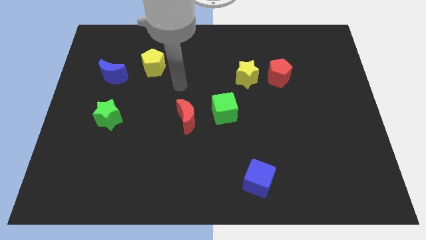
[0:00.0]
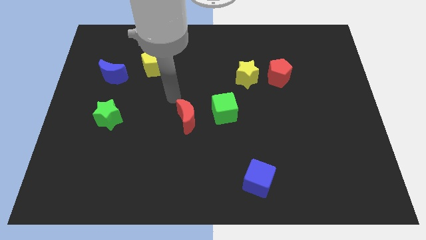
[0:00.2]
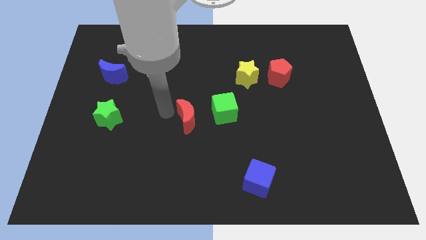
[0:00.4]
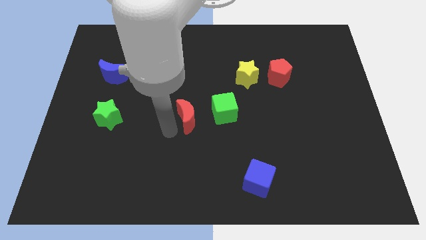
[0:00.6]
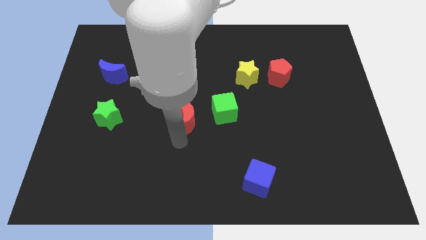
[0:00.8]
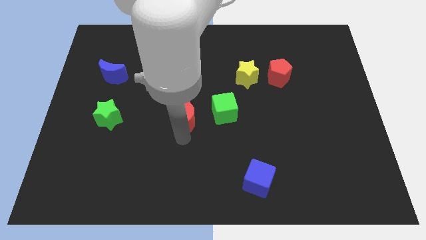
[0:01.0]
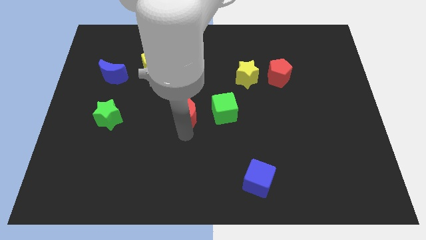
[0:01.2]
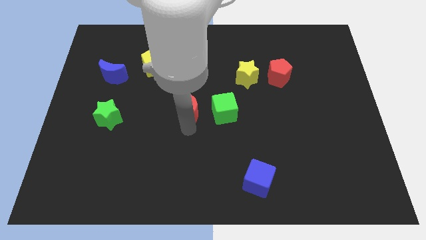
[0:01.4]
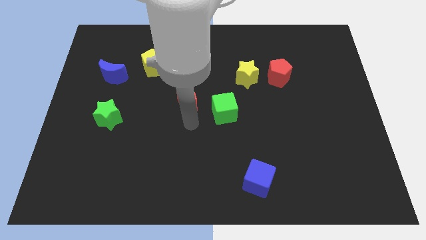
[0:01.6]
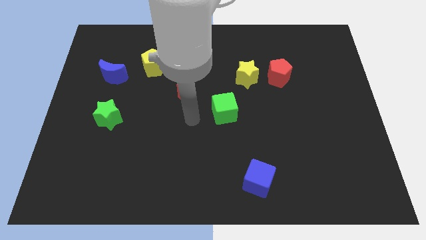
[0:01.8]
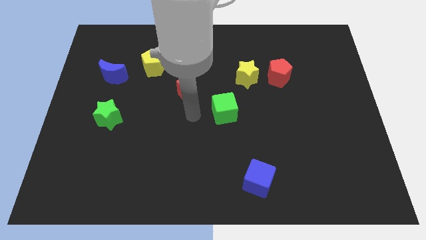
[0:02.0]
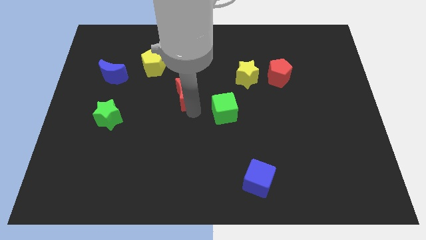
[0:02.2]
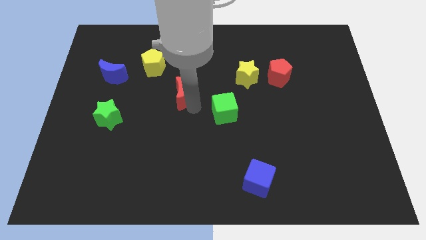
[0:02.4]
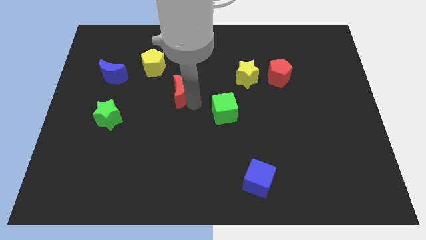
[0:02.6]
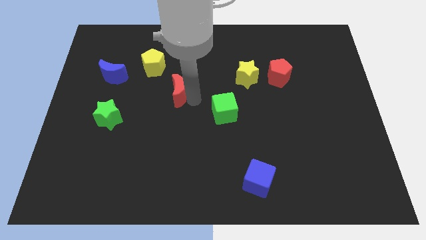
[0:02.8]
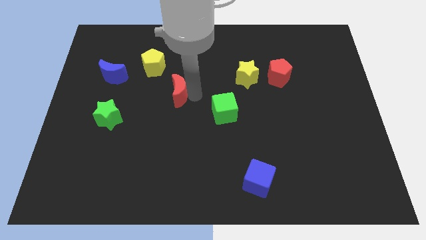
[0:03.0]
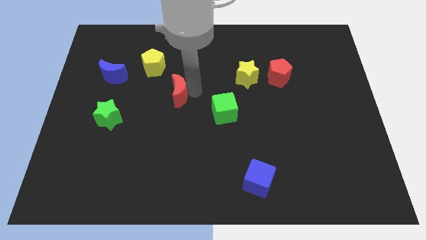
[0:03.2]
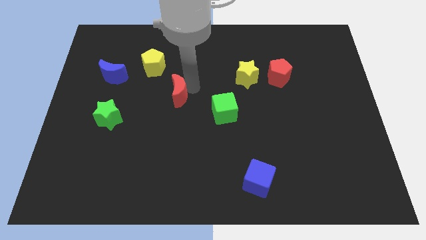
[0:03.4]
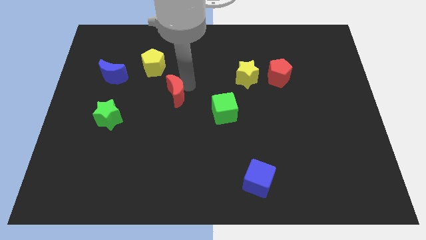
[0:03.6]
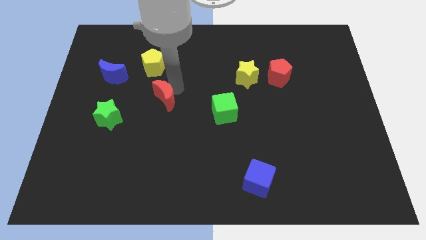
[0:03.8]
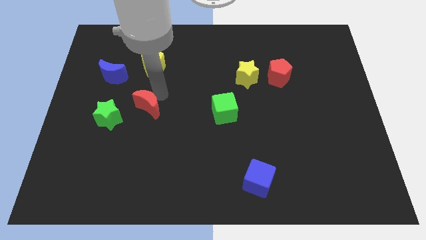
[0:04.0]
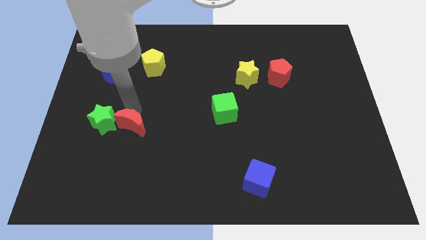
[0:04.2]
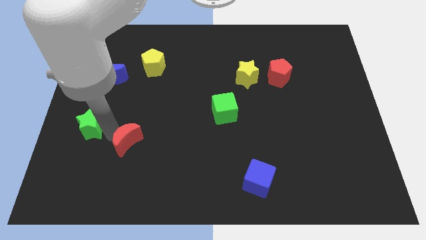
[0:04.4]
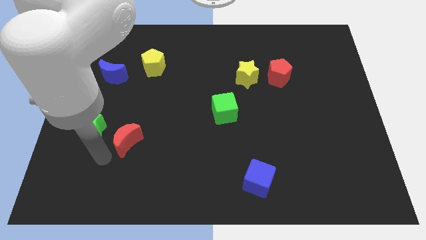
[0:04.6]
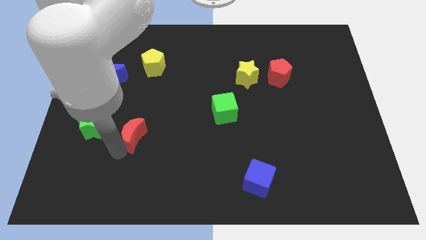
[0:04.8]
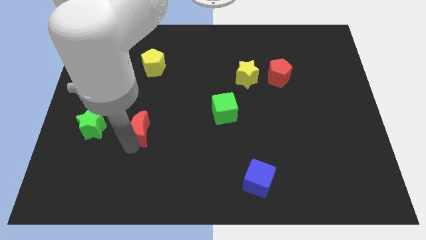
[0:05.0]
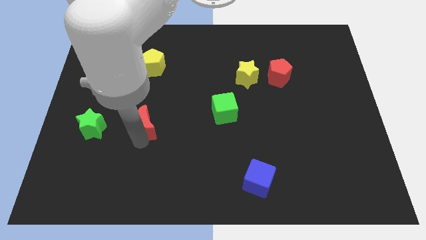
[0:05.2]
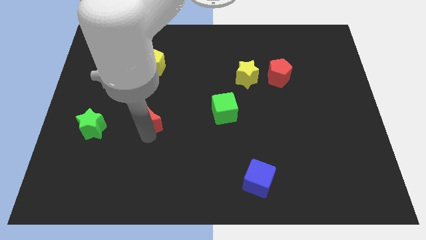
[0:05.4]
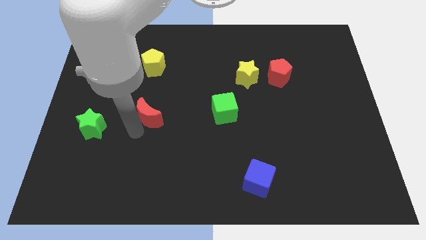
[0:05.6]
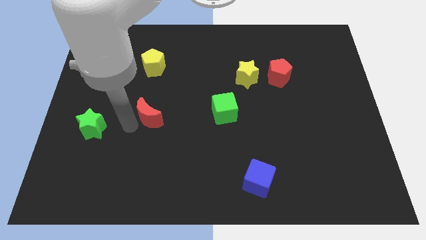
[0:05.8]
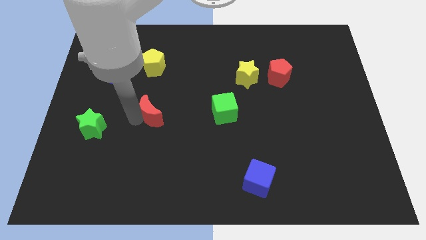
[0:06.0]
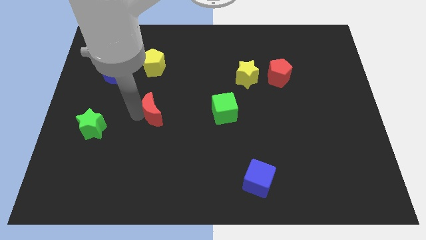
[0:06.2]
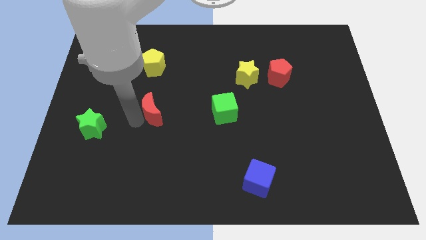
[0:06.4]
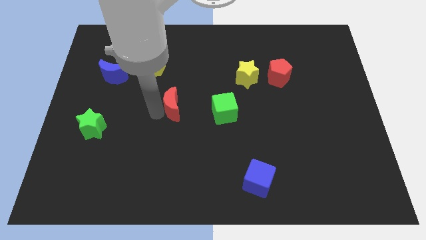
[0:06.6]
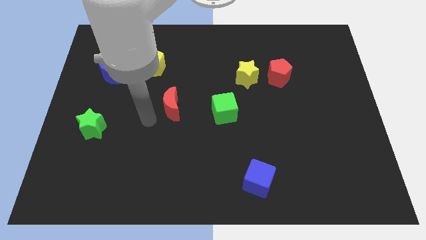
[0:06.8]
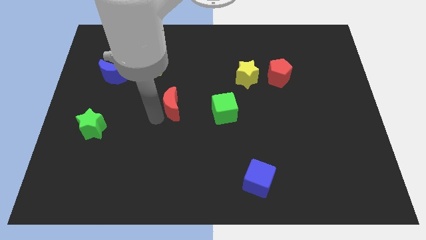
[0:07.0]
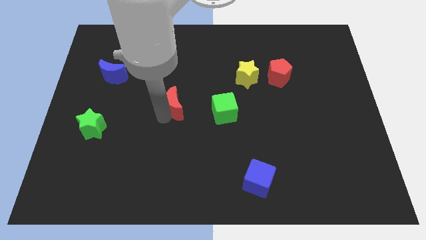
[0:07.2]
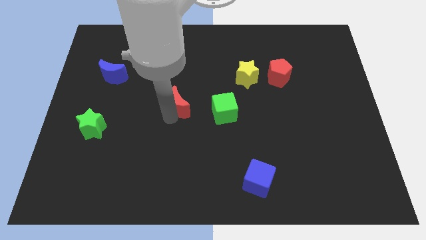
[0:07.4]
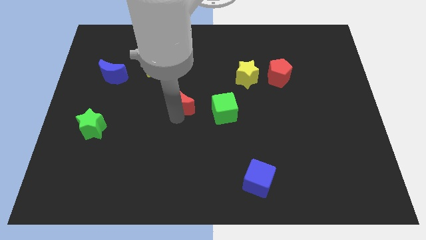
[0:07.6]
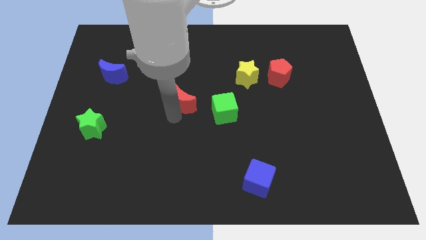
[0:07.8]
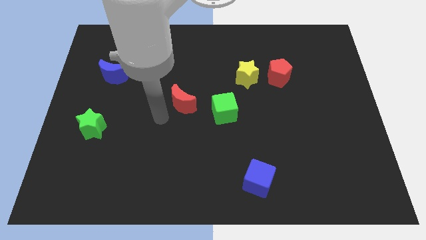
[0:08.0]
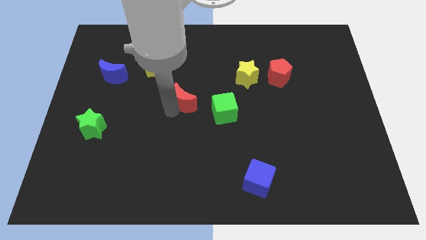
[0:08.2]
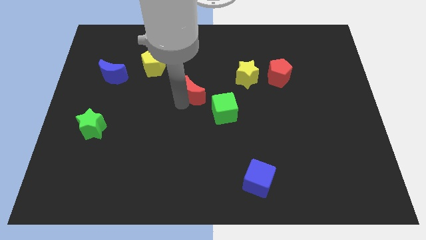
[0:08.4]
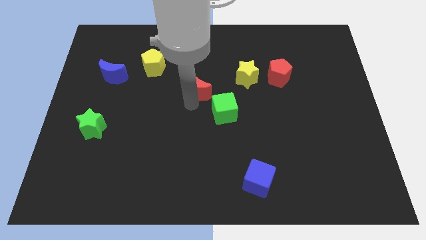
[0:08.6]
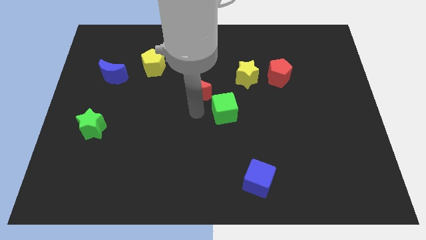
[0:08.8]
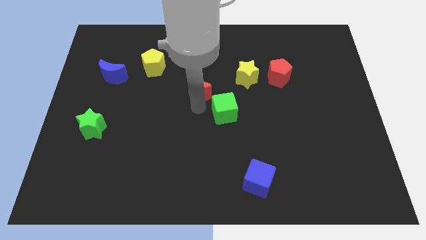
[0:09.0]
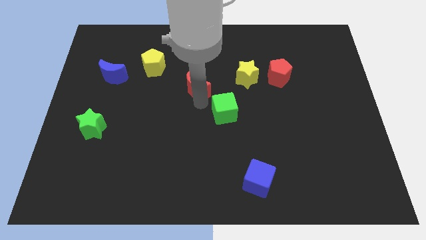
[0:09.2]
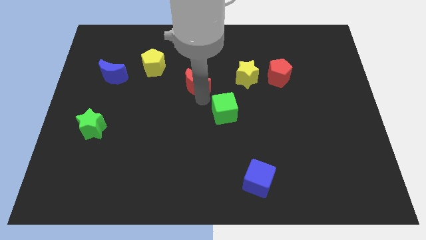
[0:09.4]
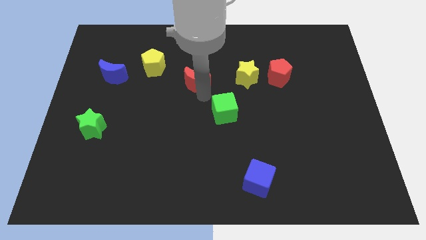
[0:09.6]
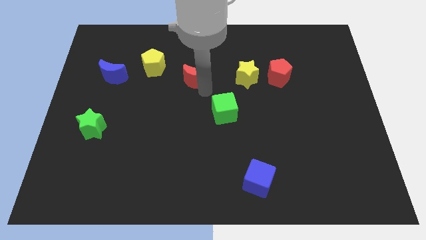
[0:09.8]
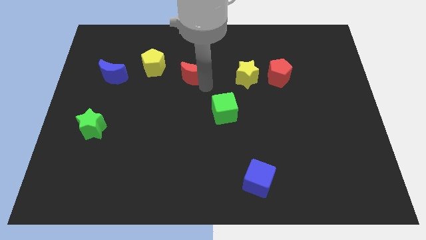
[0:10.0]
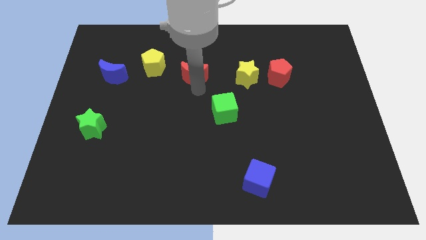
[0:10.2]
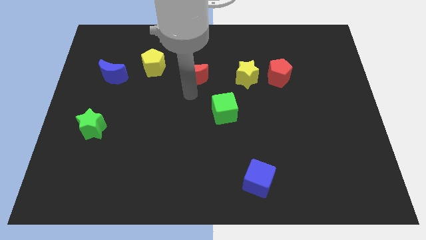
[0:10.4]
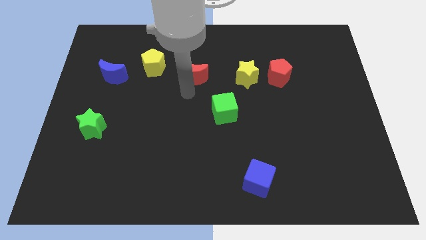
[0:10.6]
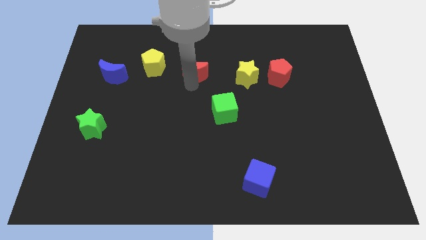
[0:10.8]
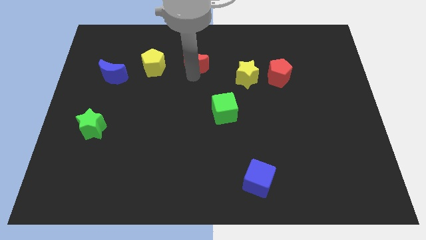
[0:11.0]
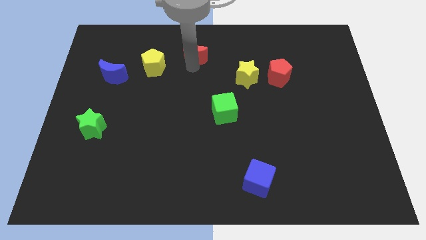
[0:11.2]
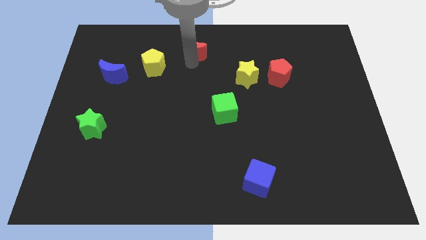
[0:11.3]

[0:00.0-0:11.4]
move the red moon to the top

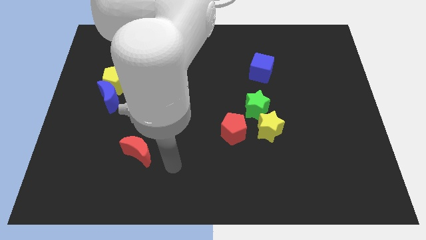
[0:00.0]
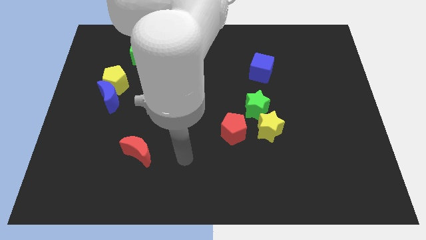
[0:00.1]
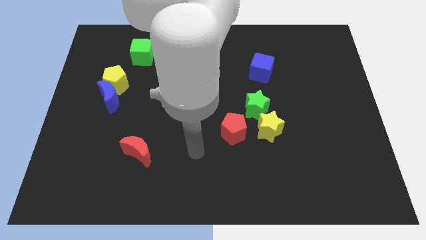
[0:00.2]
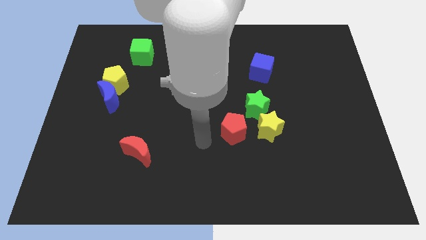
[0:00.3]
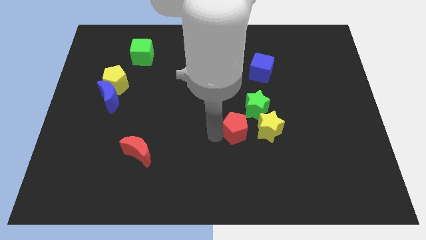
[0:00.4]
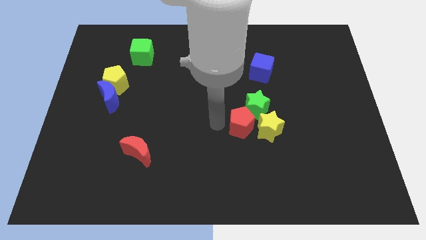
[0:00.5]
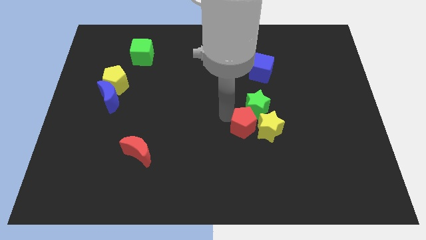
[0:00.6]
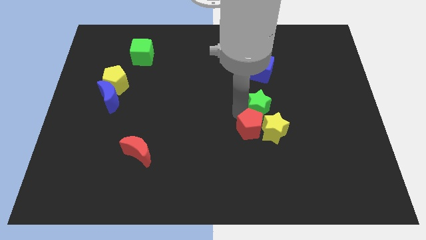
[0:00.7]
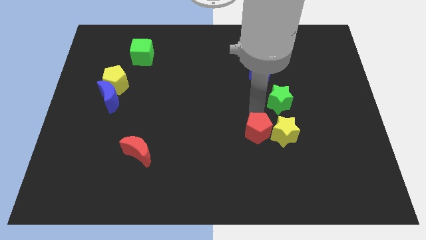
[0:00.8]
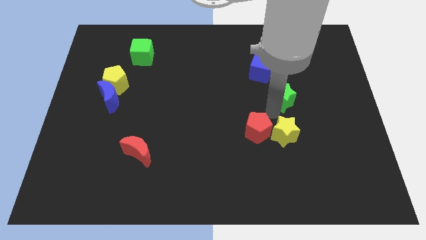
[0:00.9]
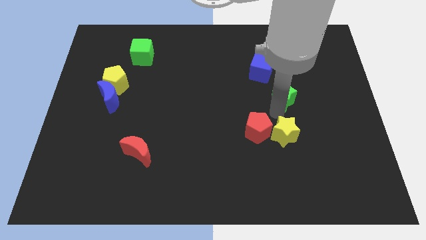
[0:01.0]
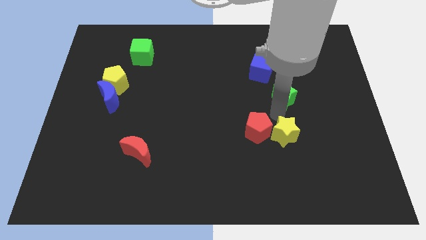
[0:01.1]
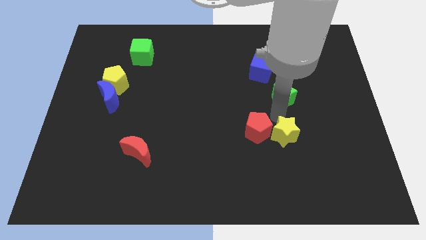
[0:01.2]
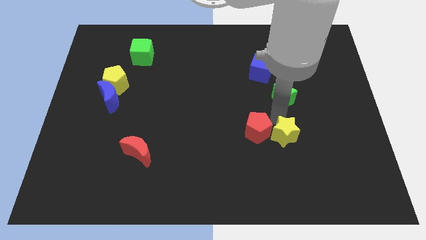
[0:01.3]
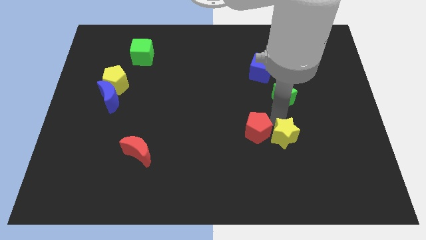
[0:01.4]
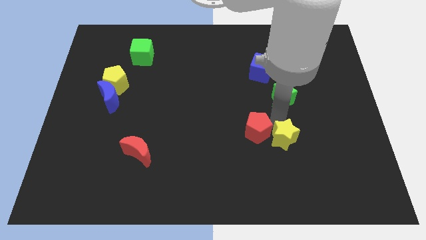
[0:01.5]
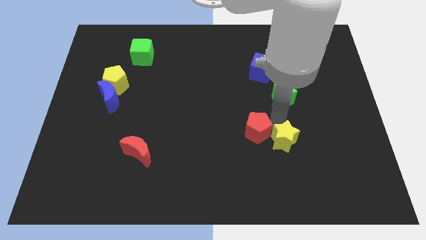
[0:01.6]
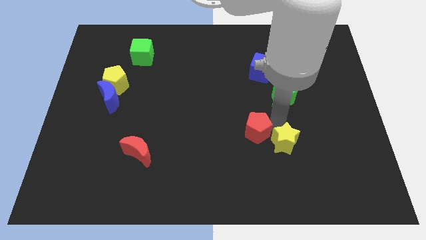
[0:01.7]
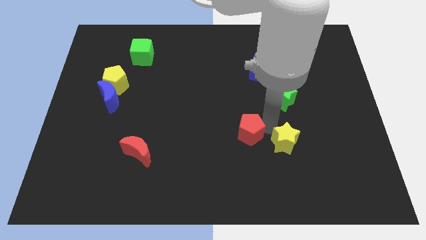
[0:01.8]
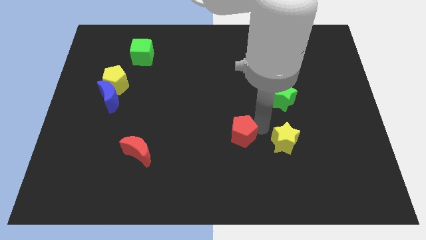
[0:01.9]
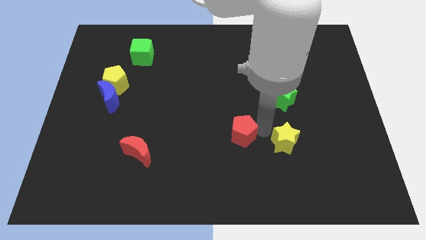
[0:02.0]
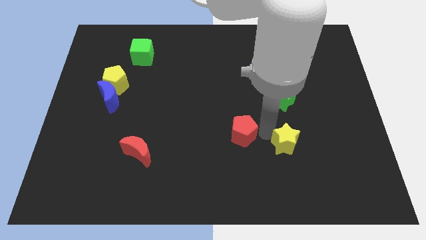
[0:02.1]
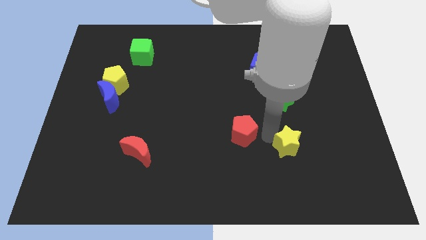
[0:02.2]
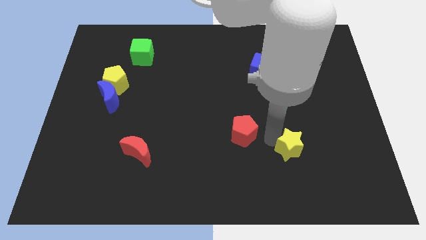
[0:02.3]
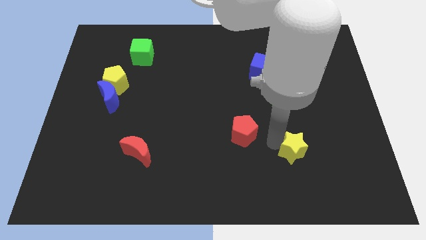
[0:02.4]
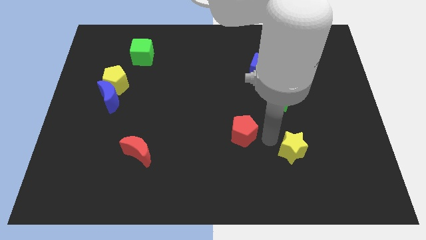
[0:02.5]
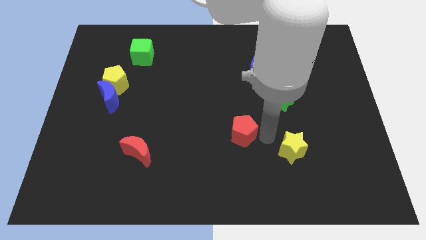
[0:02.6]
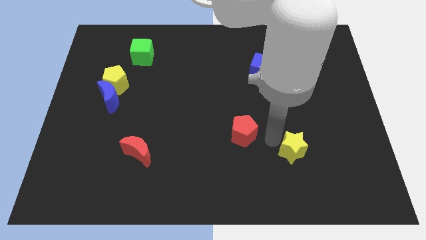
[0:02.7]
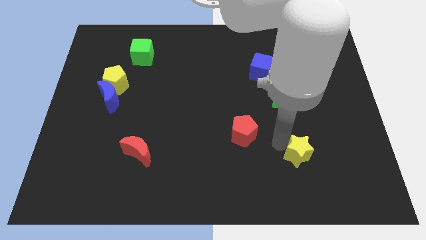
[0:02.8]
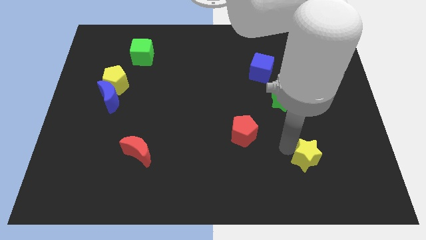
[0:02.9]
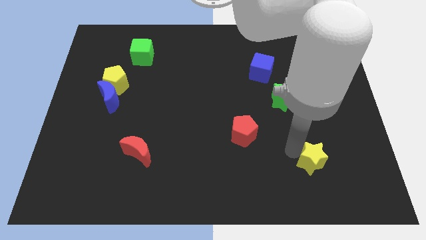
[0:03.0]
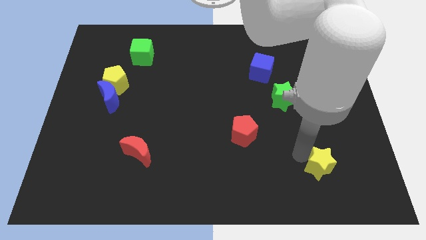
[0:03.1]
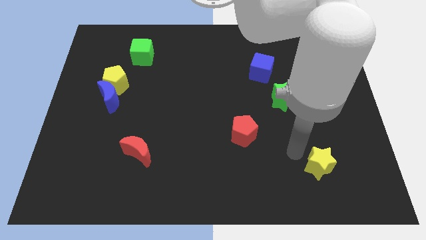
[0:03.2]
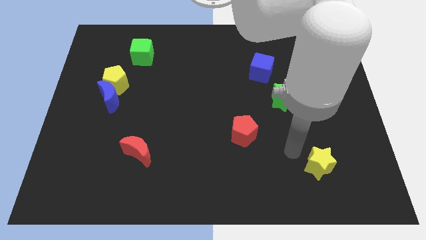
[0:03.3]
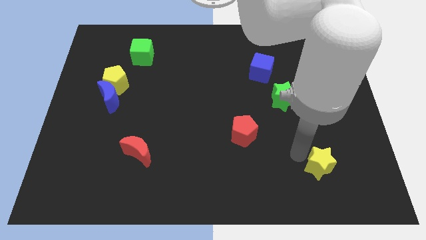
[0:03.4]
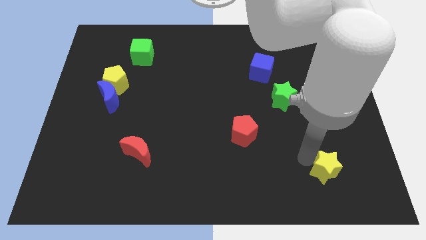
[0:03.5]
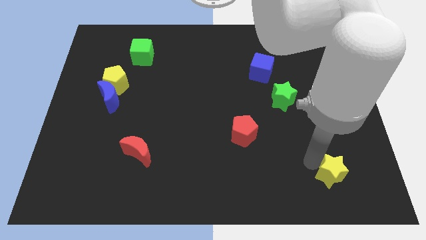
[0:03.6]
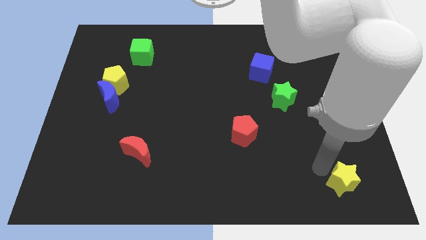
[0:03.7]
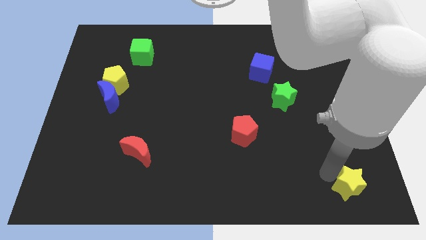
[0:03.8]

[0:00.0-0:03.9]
put the yellow star to the bottom right
